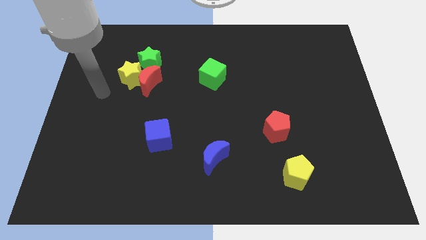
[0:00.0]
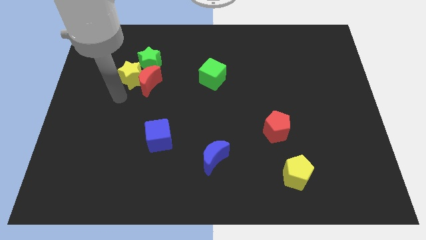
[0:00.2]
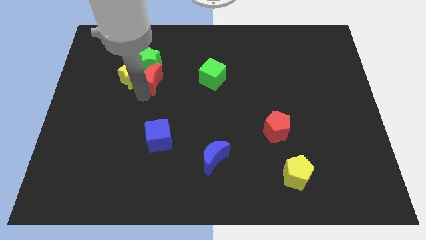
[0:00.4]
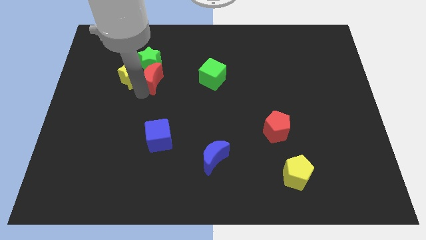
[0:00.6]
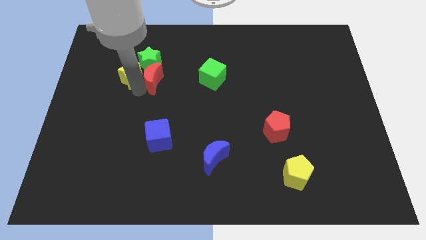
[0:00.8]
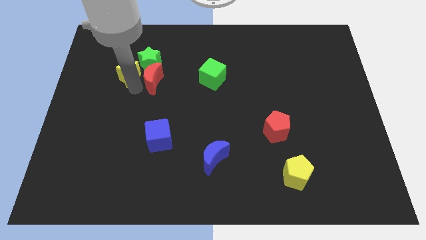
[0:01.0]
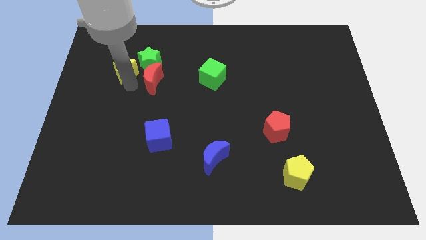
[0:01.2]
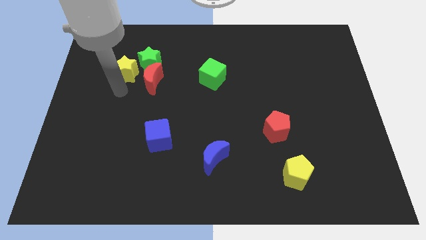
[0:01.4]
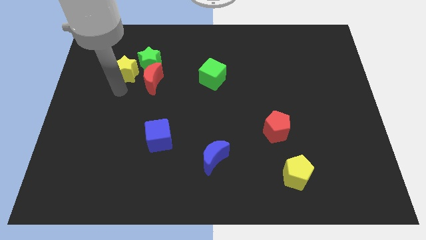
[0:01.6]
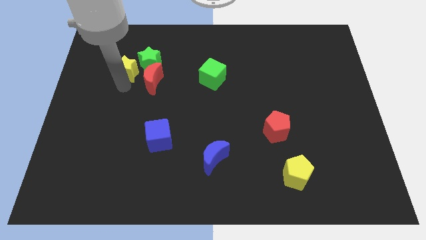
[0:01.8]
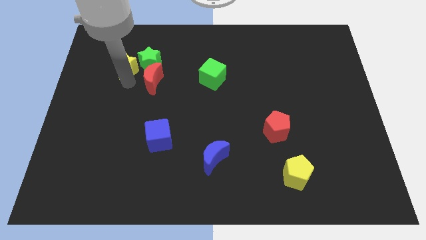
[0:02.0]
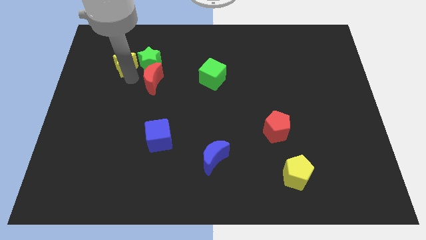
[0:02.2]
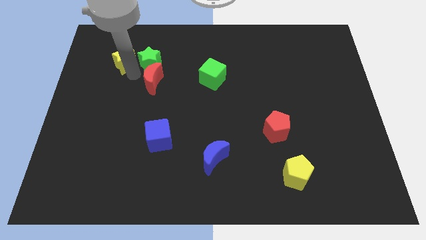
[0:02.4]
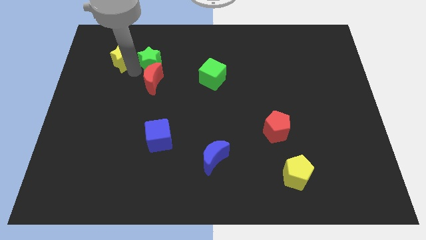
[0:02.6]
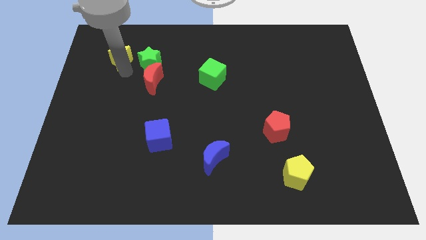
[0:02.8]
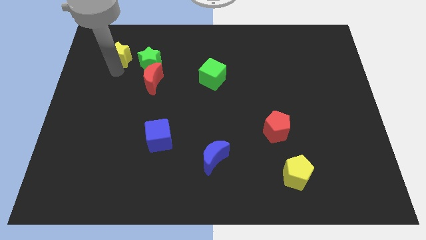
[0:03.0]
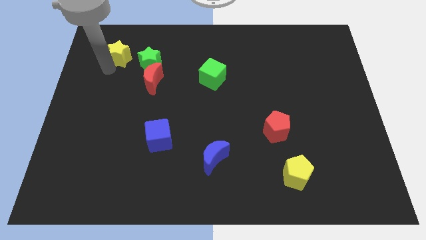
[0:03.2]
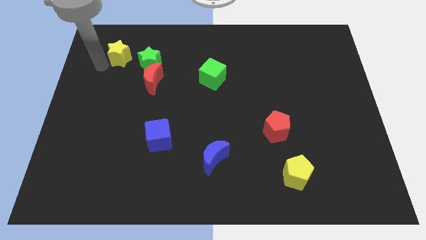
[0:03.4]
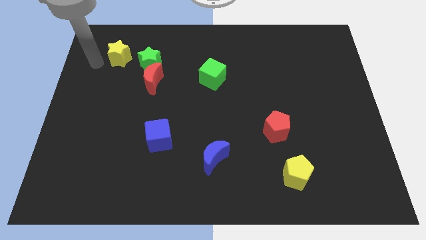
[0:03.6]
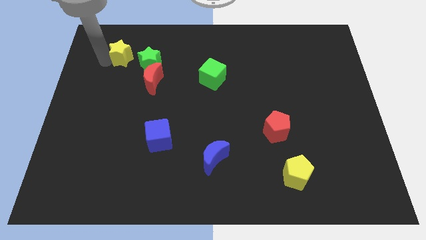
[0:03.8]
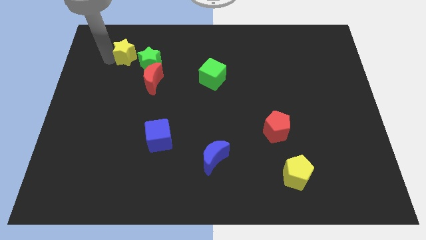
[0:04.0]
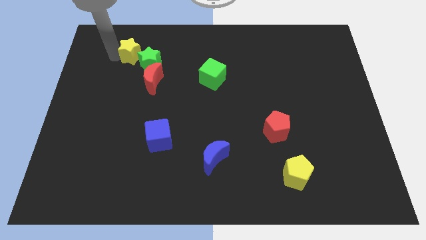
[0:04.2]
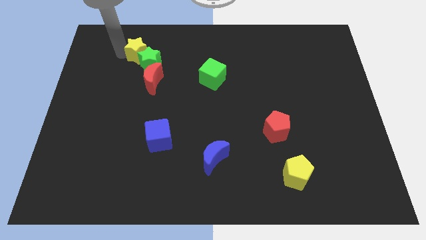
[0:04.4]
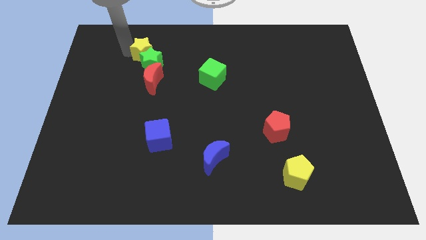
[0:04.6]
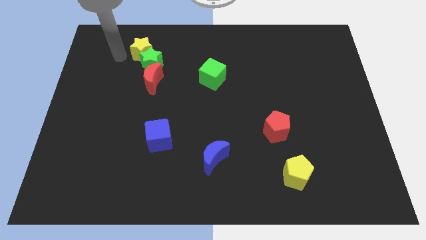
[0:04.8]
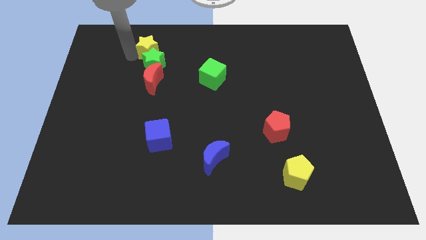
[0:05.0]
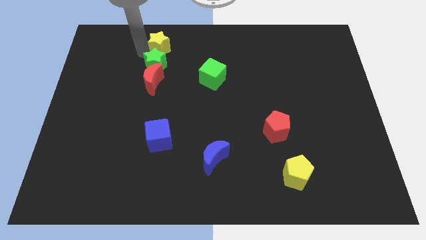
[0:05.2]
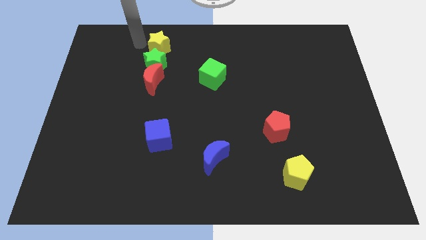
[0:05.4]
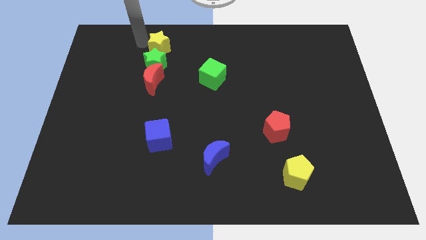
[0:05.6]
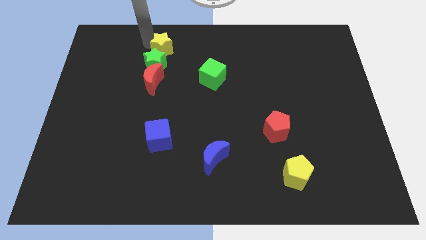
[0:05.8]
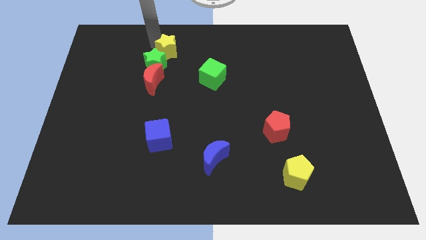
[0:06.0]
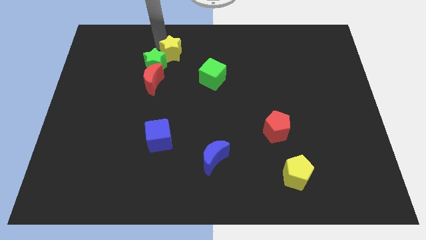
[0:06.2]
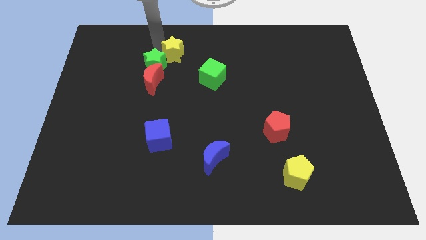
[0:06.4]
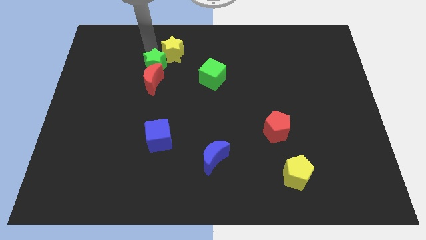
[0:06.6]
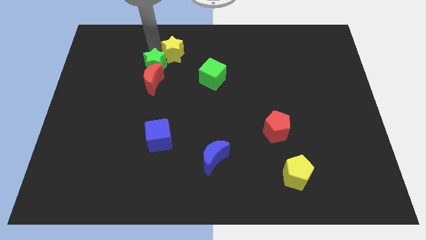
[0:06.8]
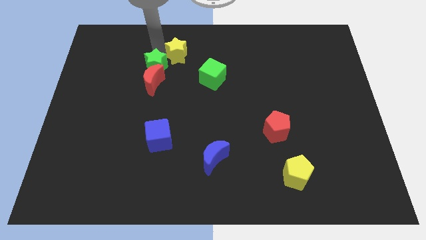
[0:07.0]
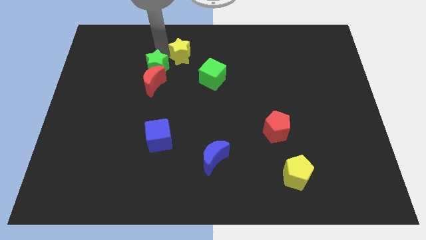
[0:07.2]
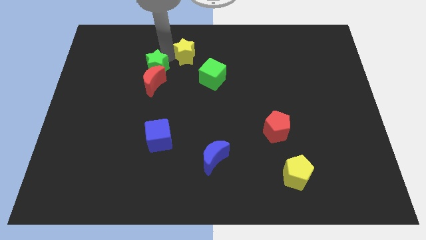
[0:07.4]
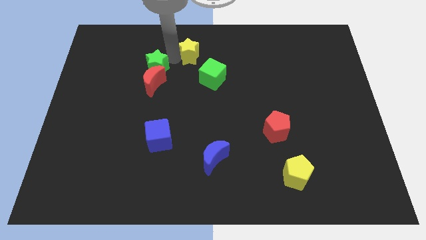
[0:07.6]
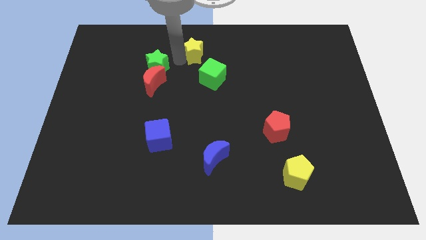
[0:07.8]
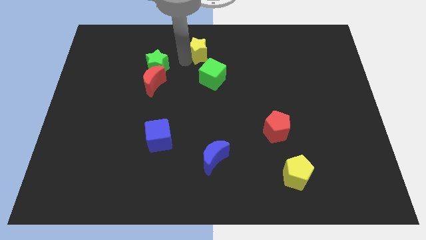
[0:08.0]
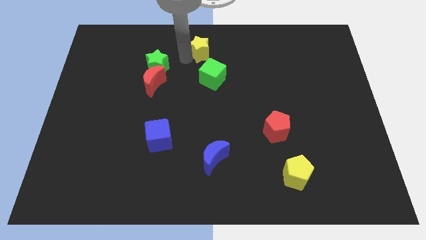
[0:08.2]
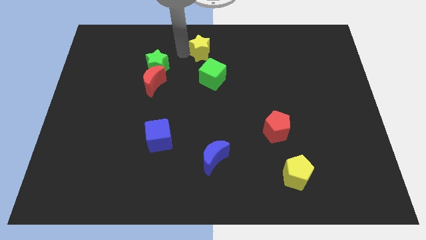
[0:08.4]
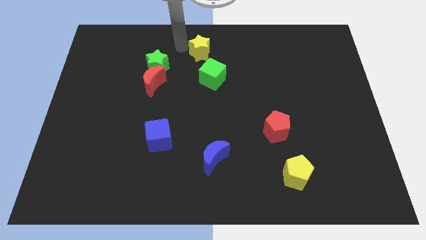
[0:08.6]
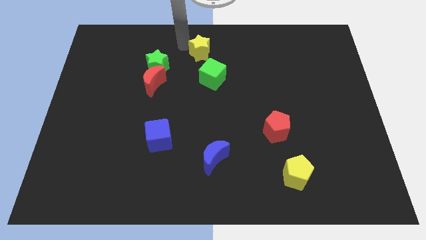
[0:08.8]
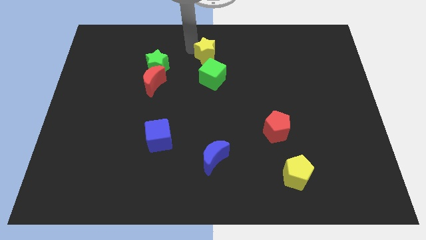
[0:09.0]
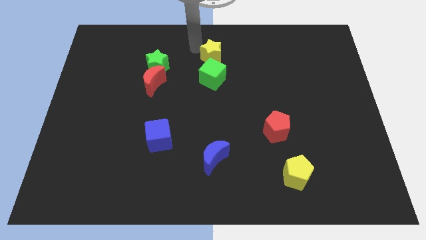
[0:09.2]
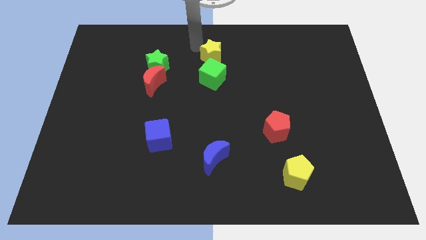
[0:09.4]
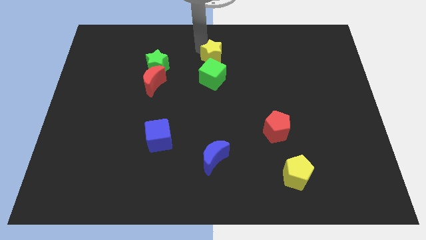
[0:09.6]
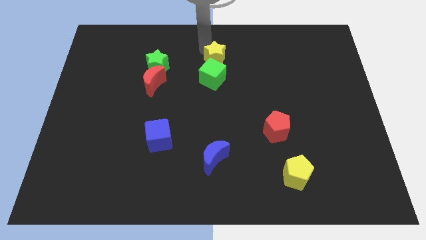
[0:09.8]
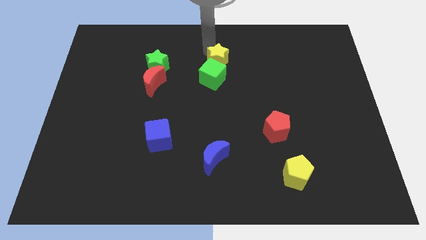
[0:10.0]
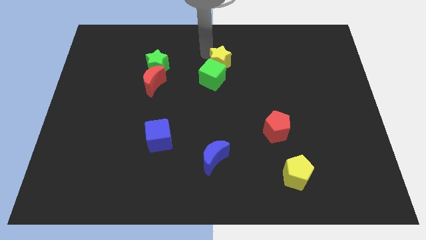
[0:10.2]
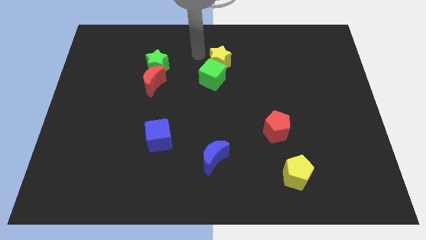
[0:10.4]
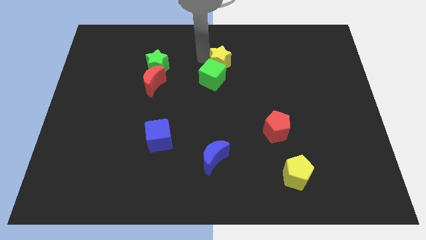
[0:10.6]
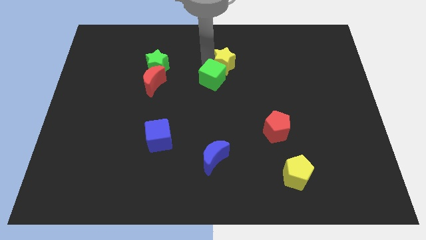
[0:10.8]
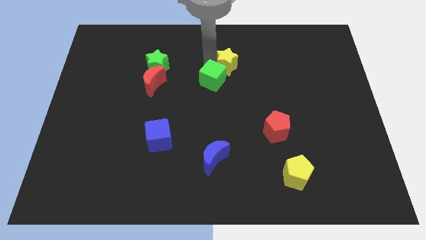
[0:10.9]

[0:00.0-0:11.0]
slide the yellow star to the right side of the green cube
